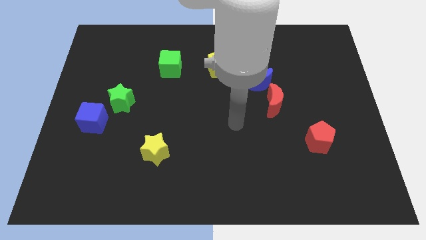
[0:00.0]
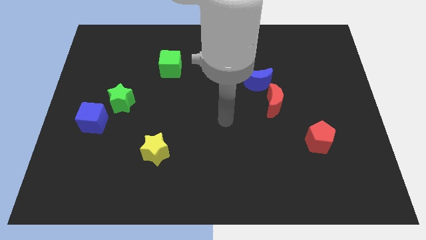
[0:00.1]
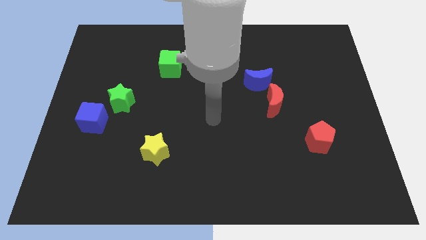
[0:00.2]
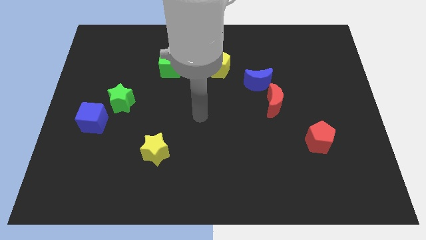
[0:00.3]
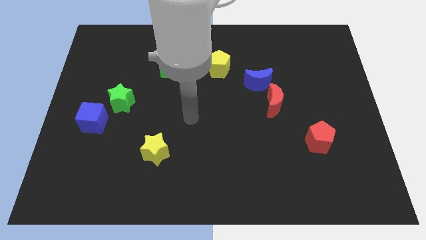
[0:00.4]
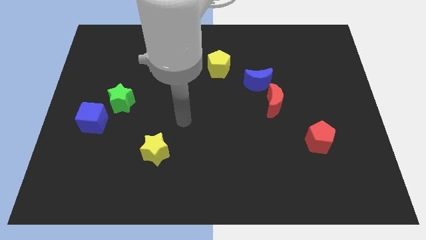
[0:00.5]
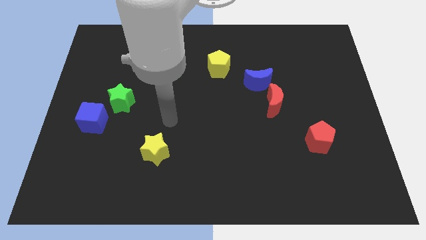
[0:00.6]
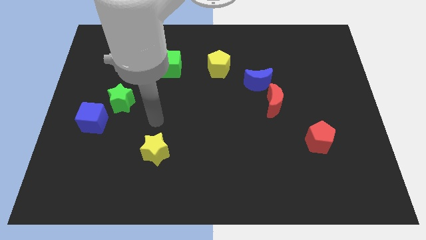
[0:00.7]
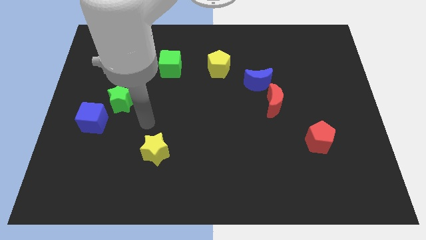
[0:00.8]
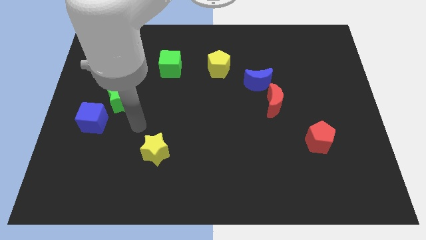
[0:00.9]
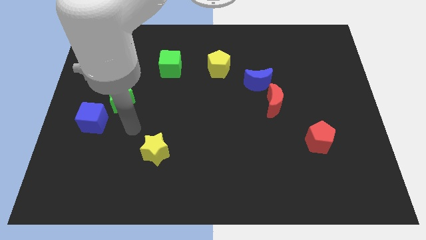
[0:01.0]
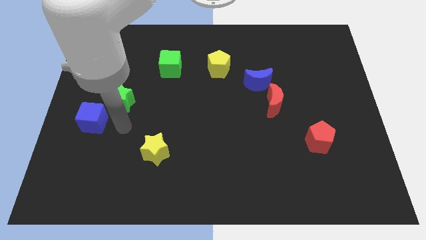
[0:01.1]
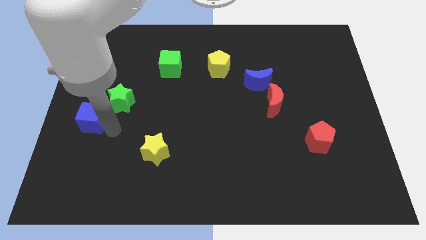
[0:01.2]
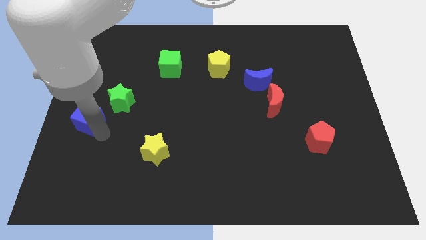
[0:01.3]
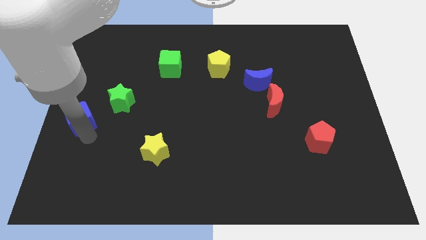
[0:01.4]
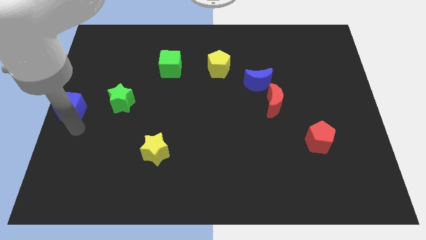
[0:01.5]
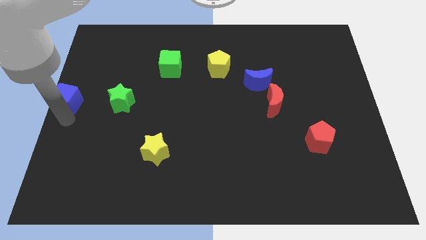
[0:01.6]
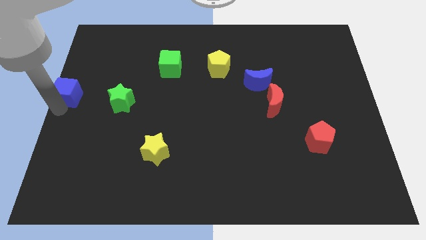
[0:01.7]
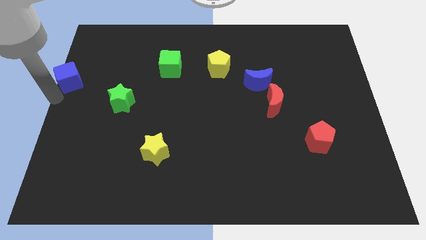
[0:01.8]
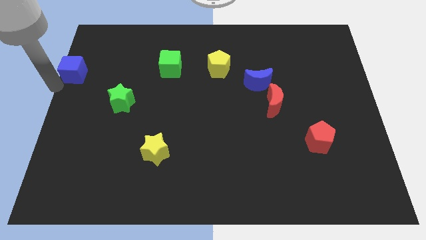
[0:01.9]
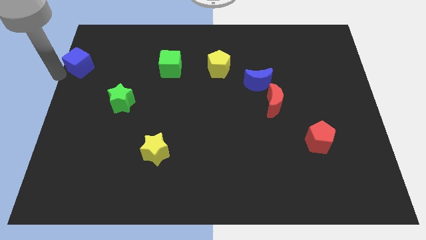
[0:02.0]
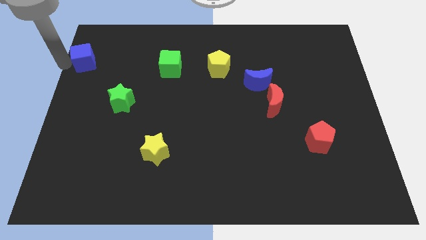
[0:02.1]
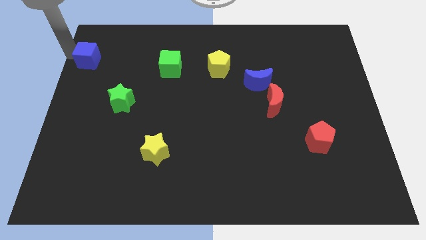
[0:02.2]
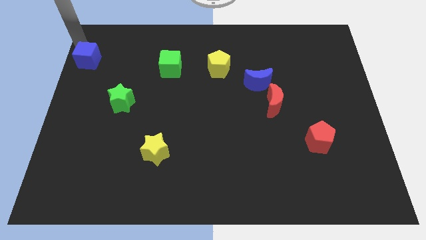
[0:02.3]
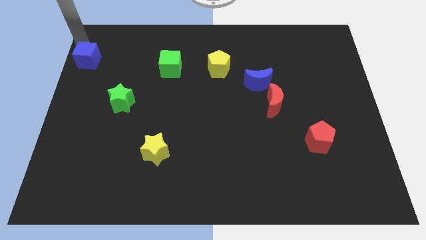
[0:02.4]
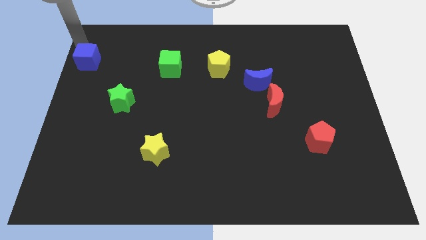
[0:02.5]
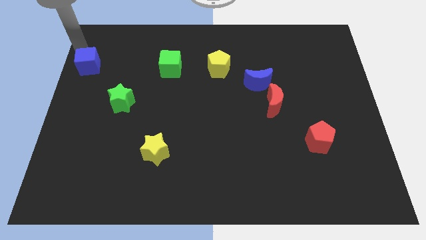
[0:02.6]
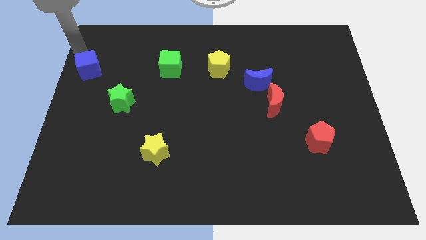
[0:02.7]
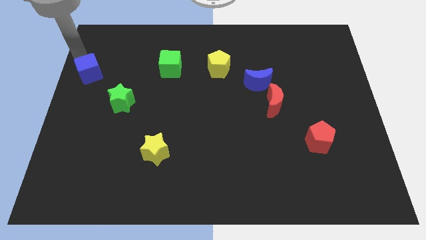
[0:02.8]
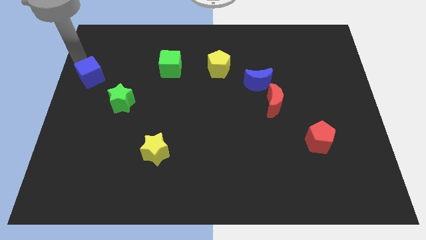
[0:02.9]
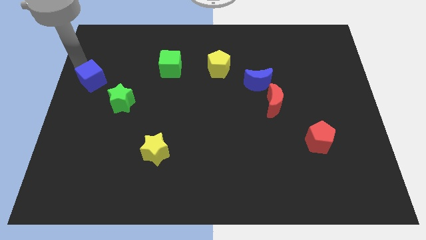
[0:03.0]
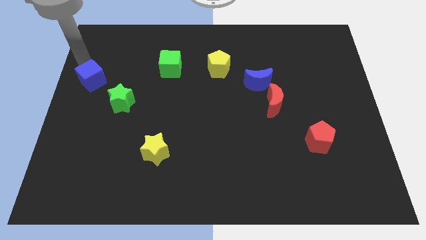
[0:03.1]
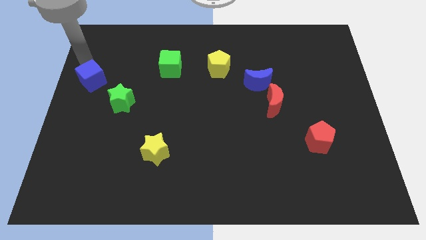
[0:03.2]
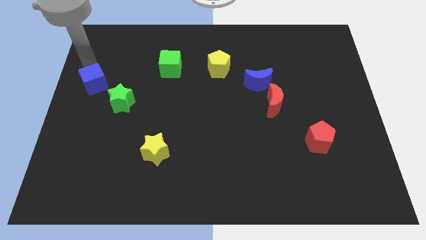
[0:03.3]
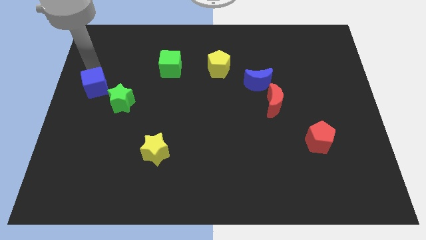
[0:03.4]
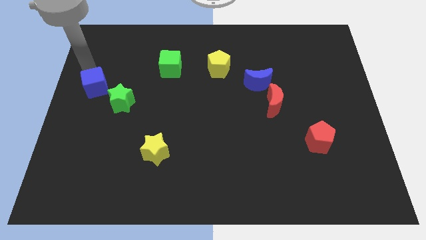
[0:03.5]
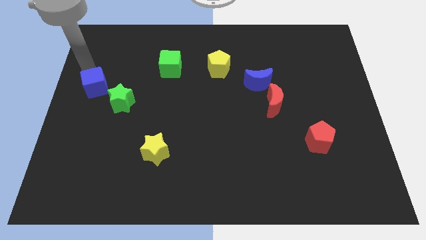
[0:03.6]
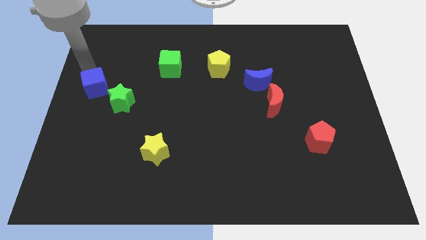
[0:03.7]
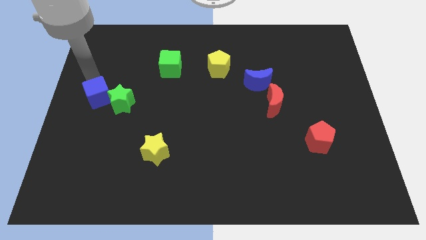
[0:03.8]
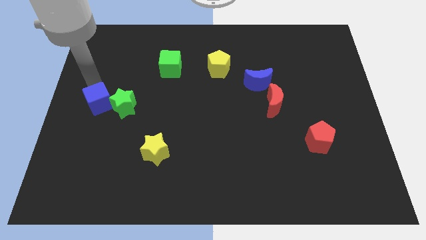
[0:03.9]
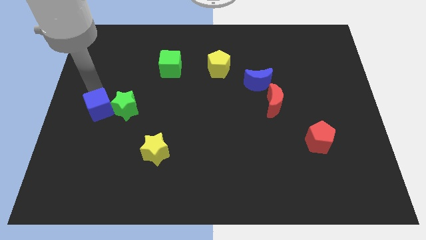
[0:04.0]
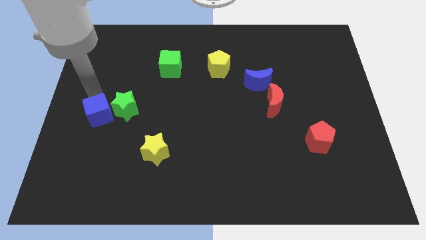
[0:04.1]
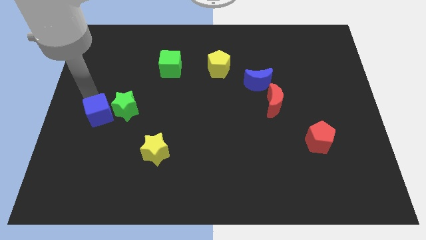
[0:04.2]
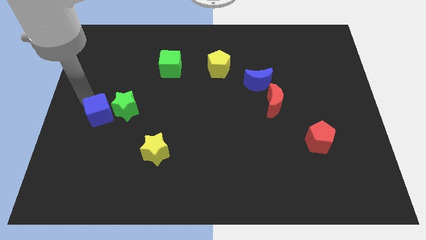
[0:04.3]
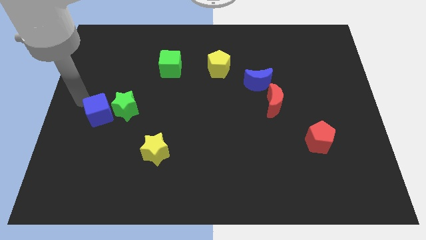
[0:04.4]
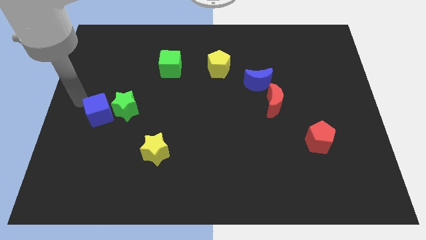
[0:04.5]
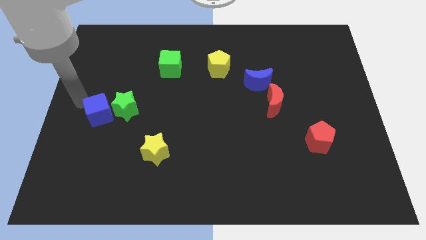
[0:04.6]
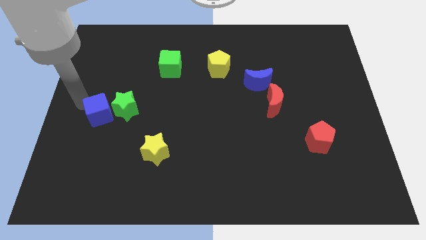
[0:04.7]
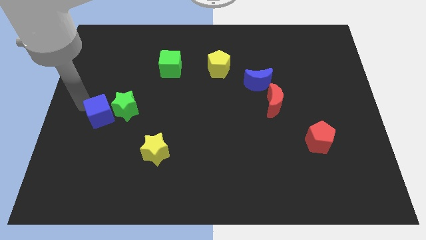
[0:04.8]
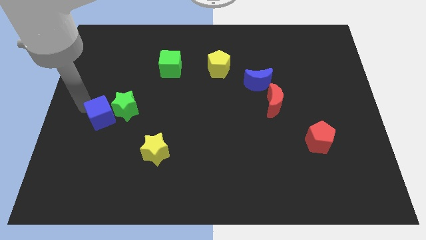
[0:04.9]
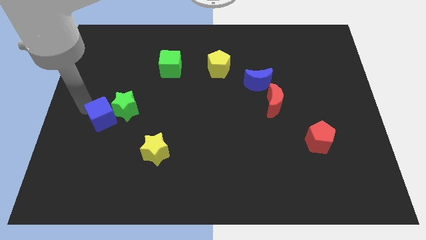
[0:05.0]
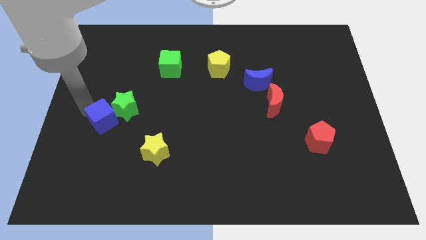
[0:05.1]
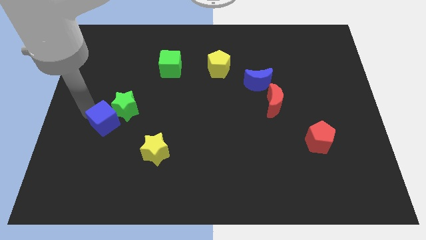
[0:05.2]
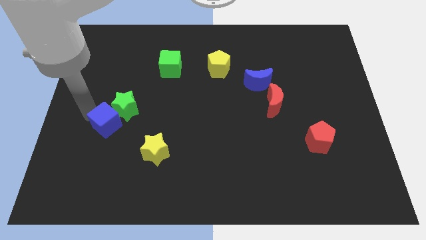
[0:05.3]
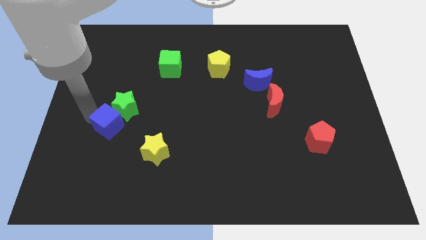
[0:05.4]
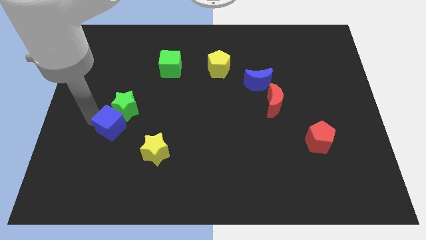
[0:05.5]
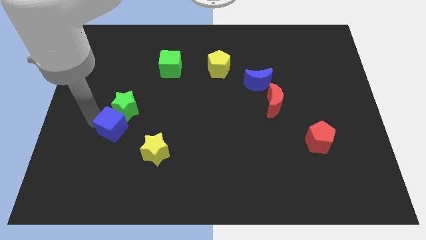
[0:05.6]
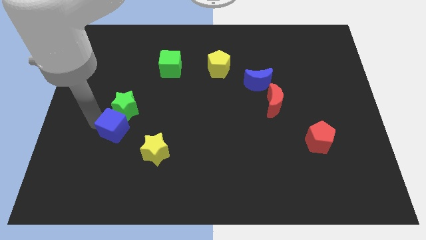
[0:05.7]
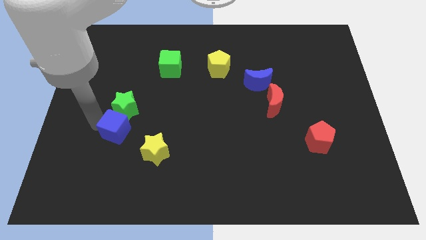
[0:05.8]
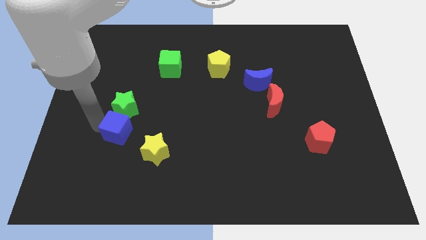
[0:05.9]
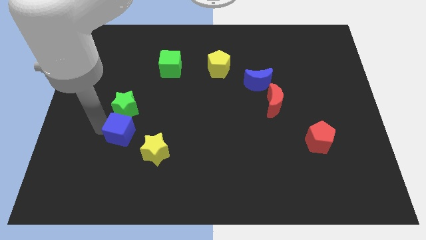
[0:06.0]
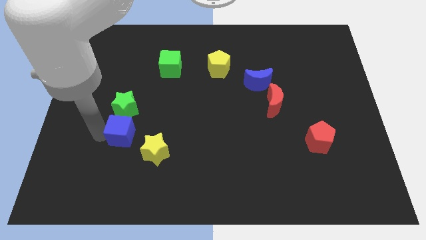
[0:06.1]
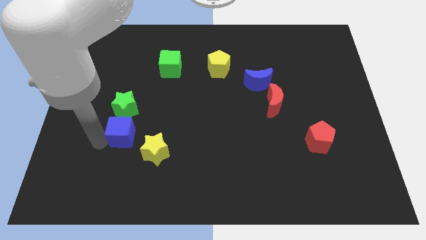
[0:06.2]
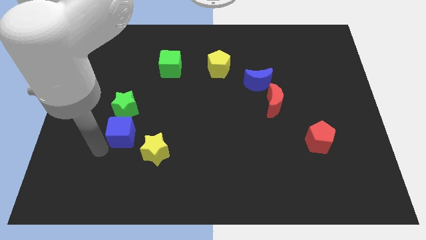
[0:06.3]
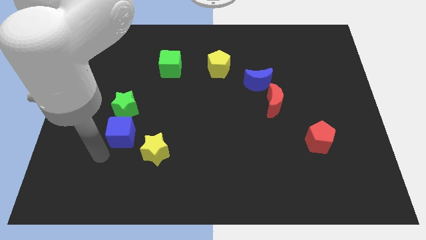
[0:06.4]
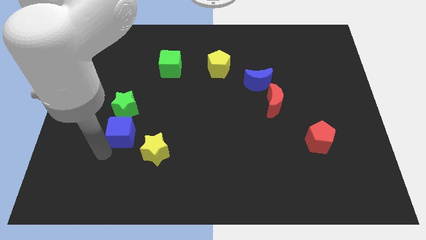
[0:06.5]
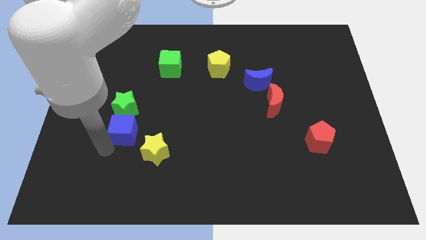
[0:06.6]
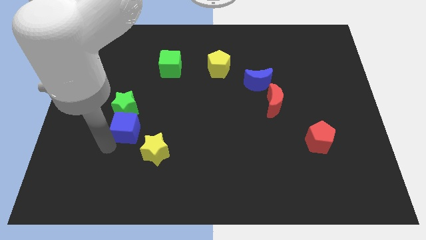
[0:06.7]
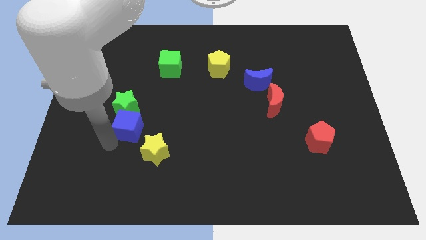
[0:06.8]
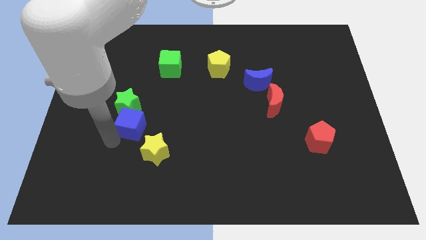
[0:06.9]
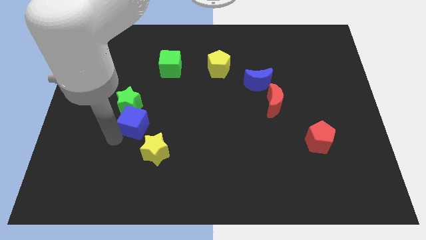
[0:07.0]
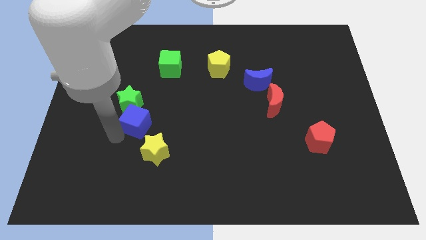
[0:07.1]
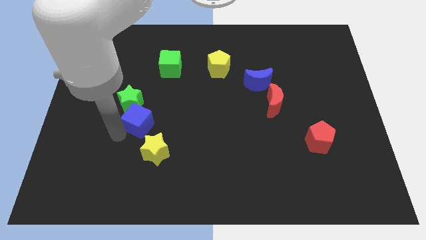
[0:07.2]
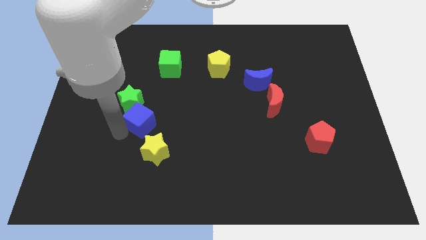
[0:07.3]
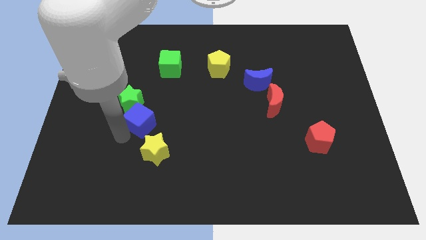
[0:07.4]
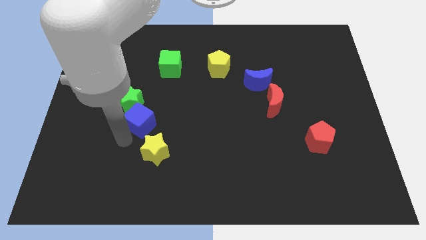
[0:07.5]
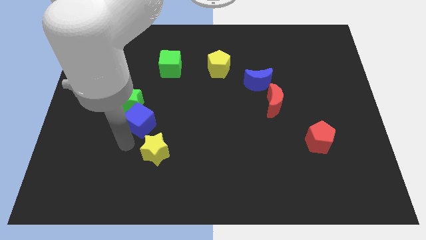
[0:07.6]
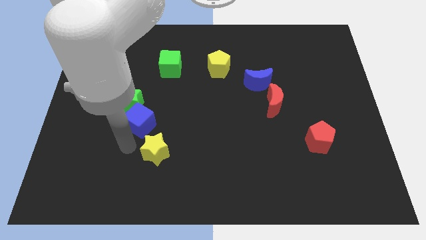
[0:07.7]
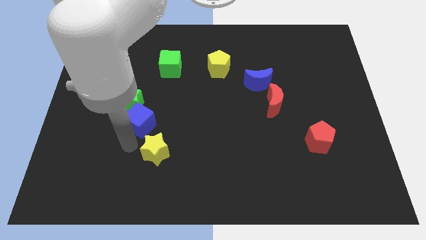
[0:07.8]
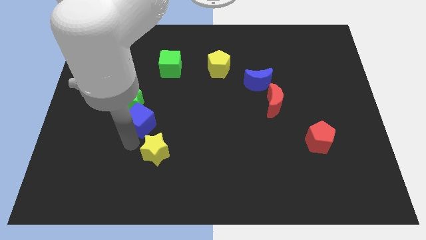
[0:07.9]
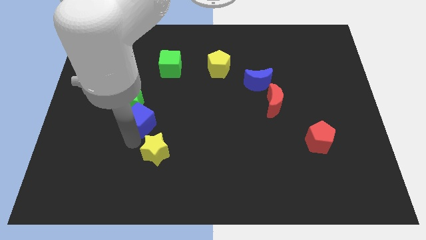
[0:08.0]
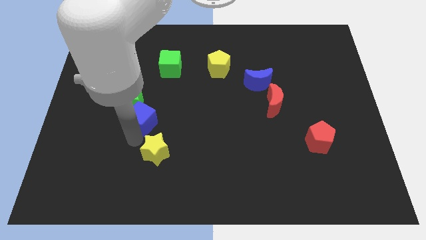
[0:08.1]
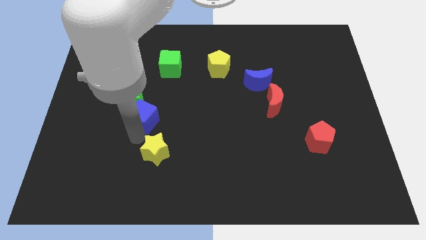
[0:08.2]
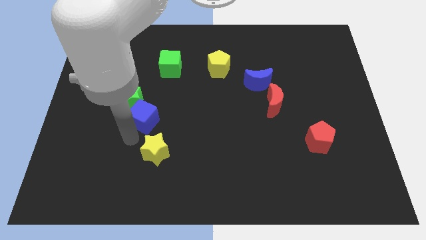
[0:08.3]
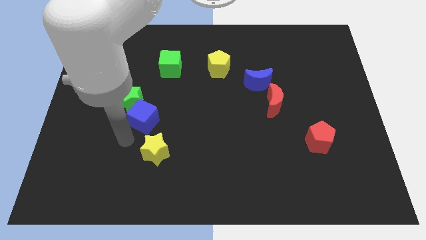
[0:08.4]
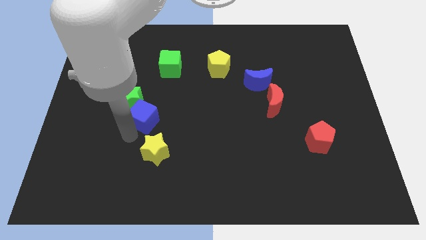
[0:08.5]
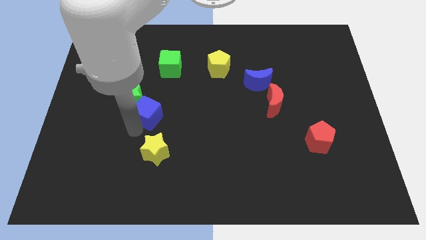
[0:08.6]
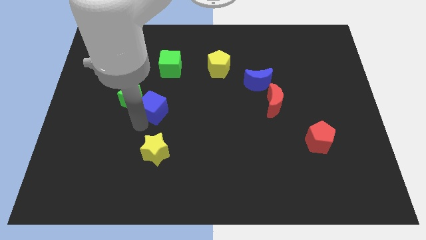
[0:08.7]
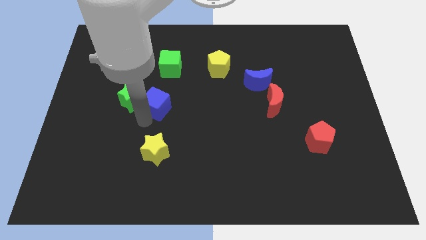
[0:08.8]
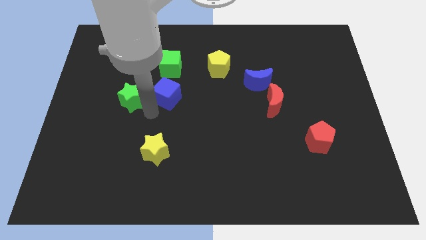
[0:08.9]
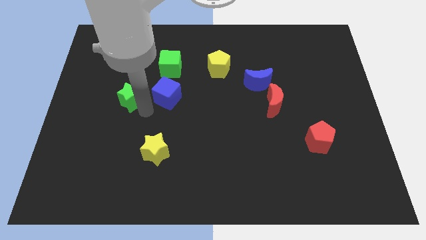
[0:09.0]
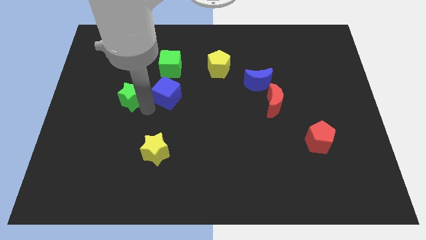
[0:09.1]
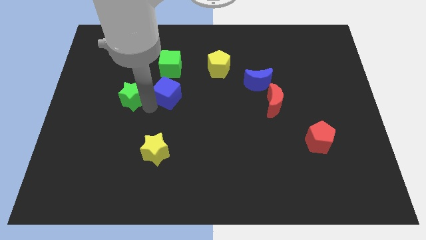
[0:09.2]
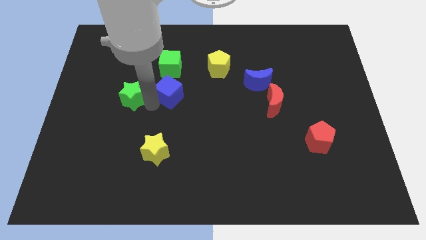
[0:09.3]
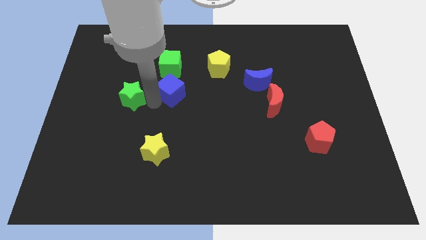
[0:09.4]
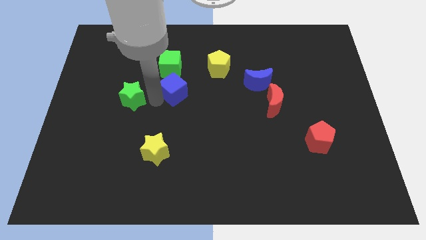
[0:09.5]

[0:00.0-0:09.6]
put the blue cube to the bottom right side of the green cube
